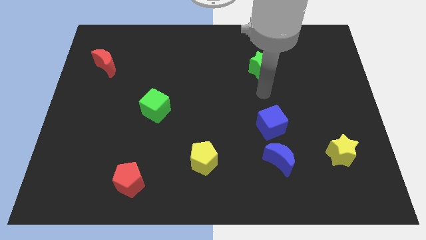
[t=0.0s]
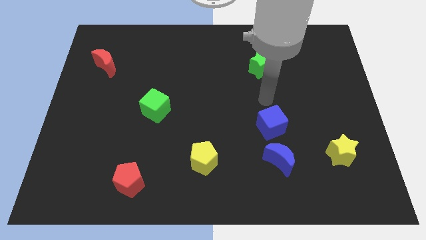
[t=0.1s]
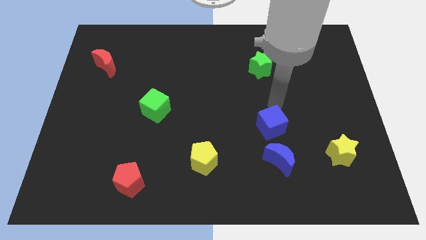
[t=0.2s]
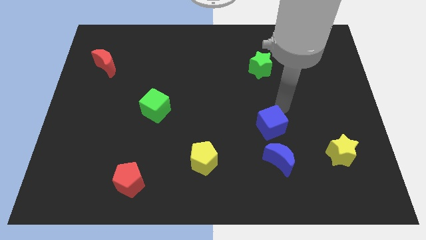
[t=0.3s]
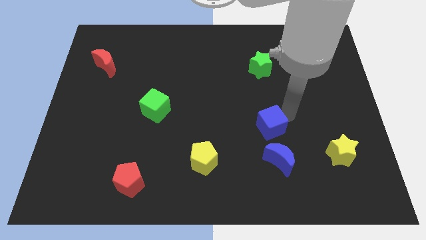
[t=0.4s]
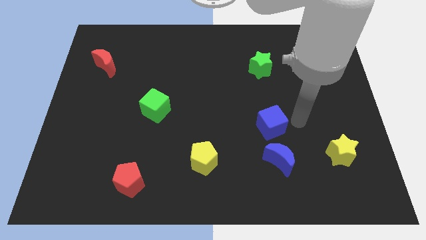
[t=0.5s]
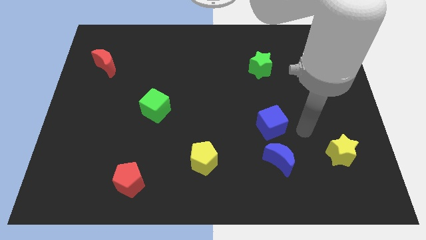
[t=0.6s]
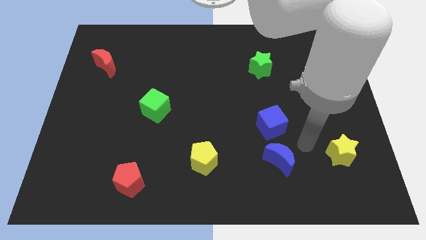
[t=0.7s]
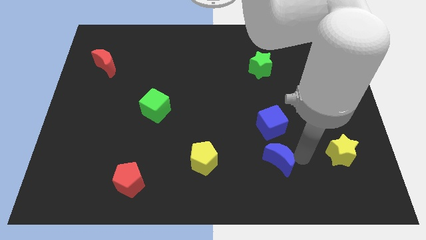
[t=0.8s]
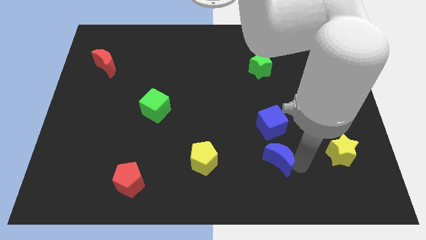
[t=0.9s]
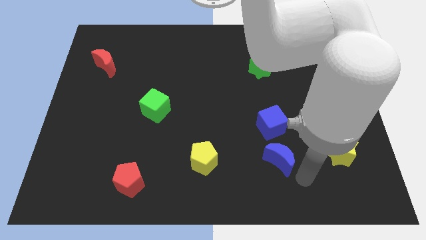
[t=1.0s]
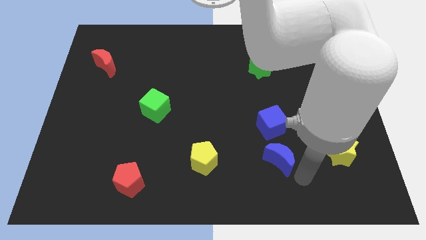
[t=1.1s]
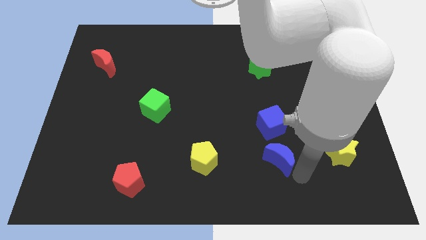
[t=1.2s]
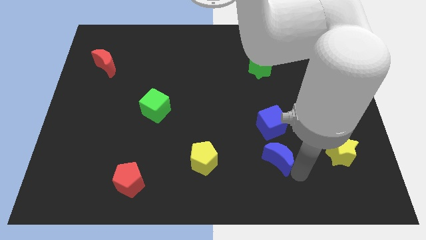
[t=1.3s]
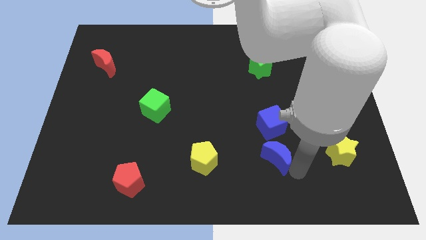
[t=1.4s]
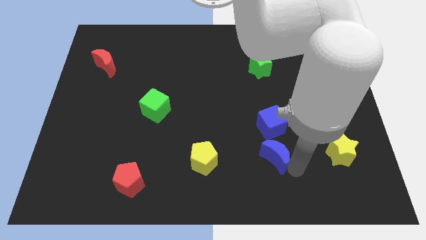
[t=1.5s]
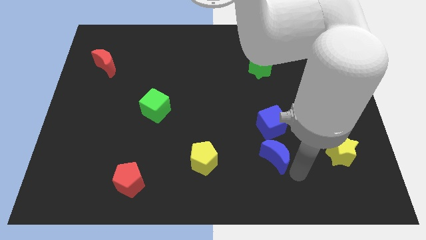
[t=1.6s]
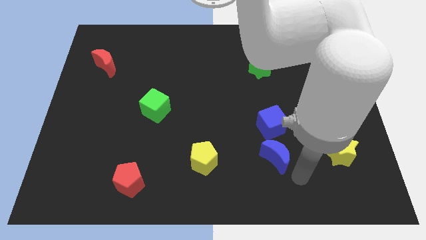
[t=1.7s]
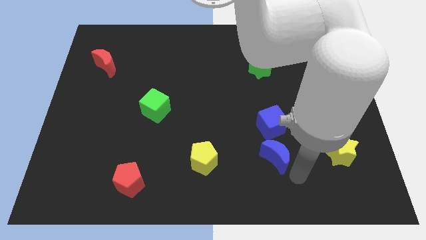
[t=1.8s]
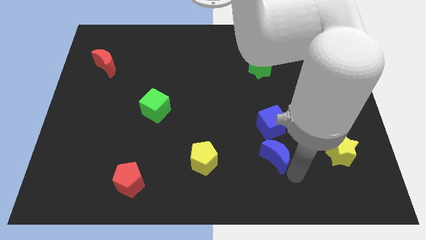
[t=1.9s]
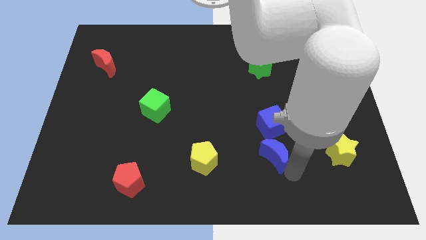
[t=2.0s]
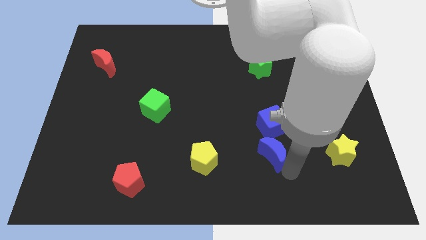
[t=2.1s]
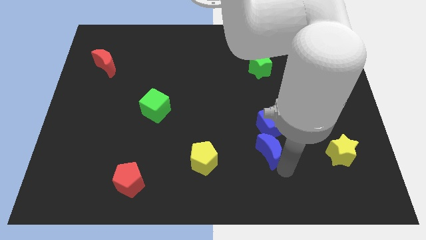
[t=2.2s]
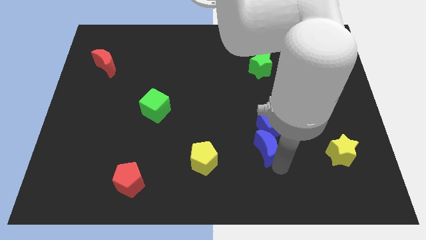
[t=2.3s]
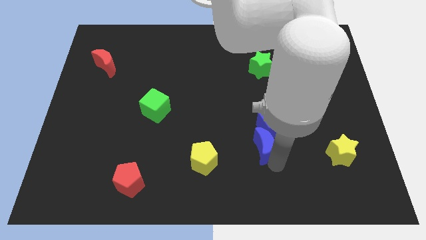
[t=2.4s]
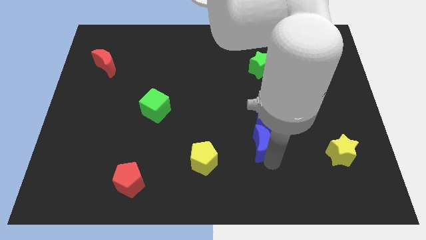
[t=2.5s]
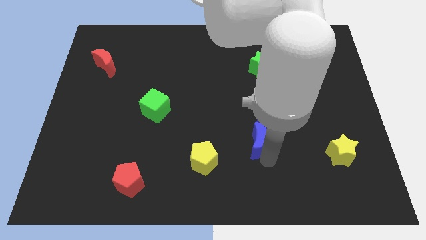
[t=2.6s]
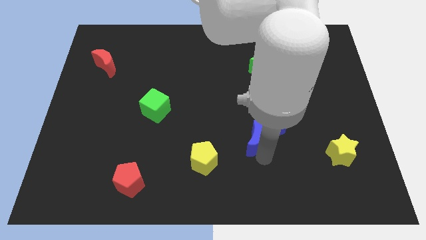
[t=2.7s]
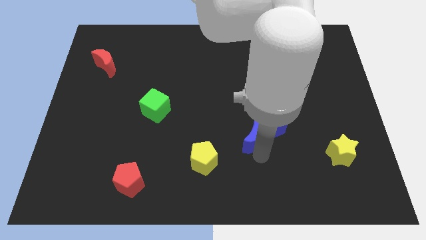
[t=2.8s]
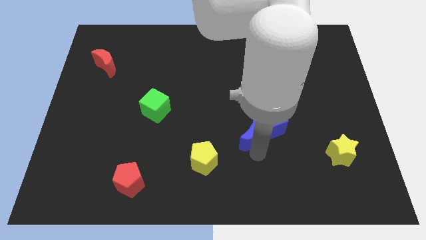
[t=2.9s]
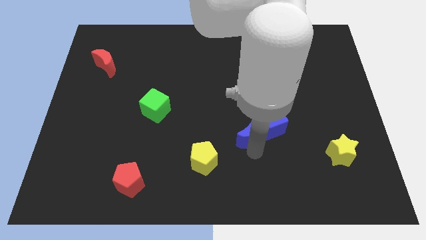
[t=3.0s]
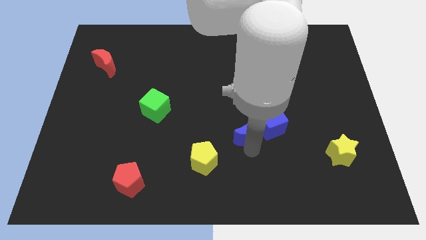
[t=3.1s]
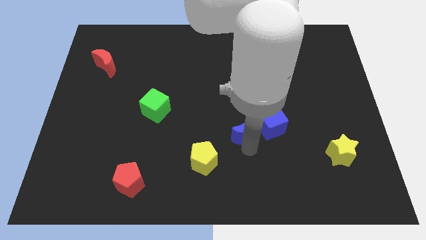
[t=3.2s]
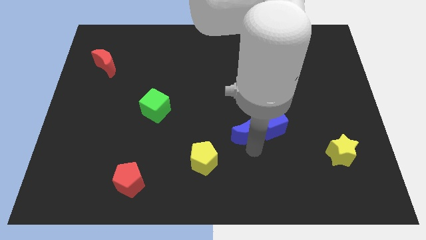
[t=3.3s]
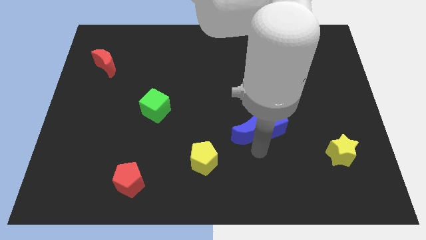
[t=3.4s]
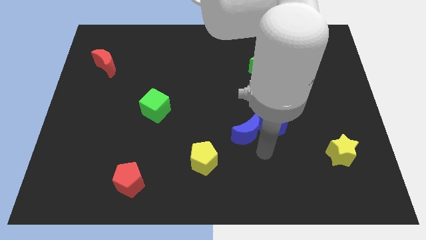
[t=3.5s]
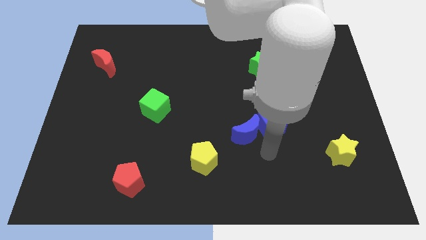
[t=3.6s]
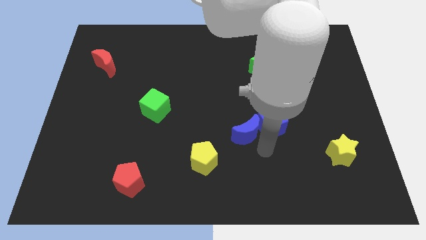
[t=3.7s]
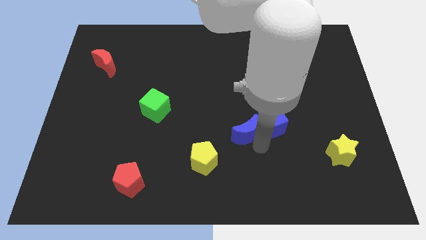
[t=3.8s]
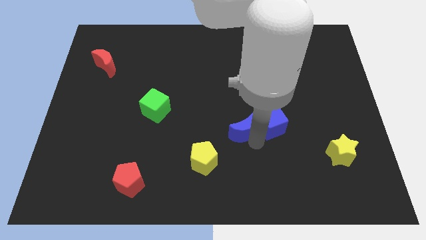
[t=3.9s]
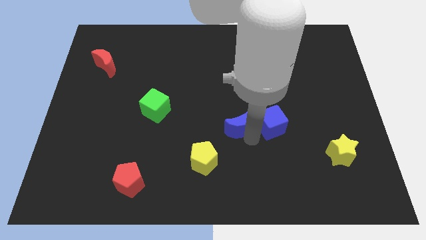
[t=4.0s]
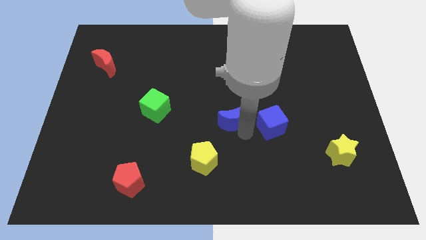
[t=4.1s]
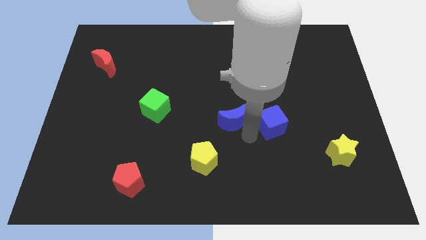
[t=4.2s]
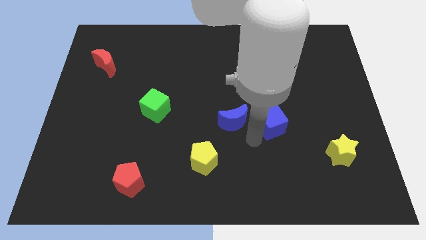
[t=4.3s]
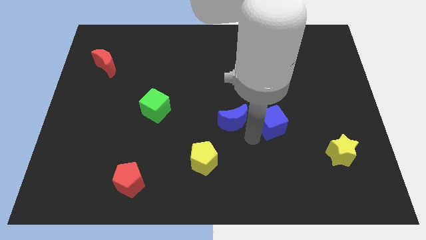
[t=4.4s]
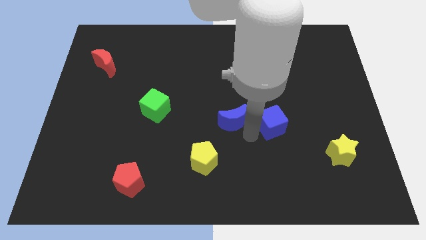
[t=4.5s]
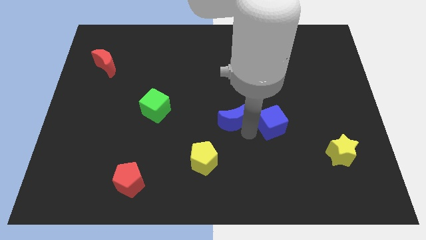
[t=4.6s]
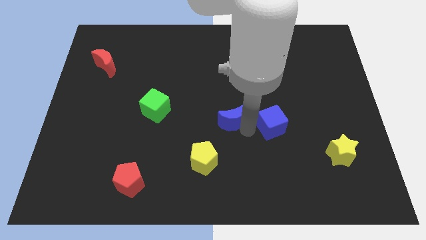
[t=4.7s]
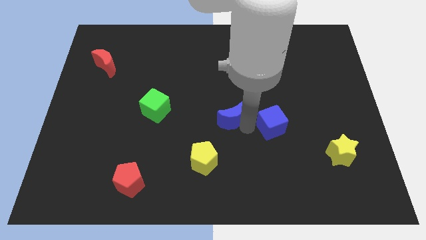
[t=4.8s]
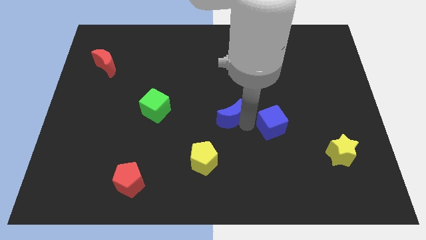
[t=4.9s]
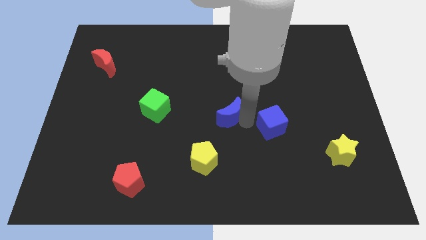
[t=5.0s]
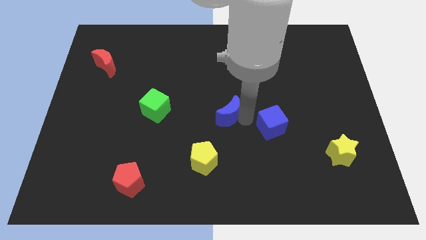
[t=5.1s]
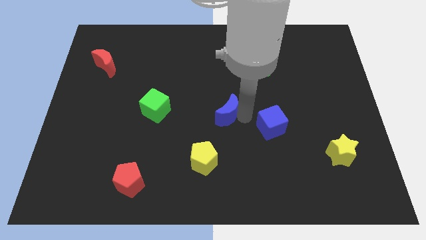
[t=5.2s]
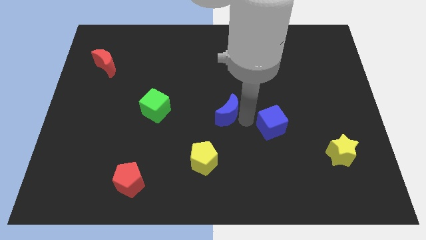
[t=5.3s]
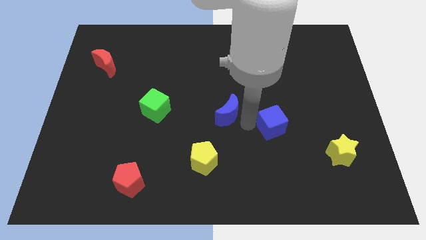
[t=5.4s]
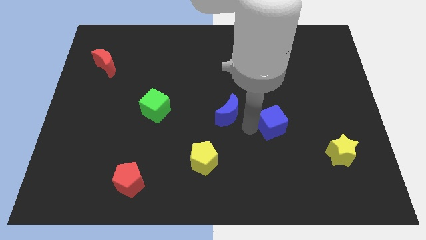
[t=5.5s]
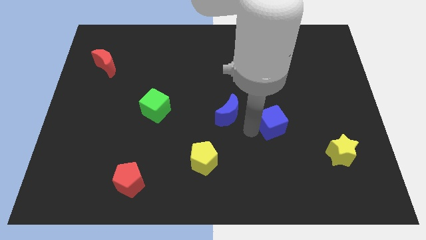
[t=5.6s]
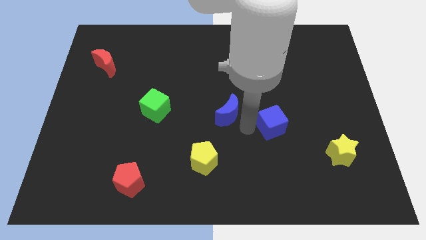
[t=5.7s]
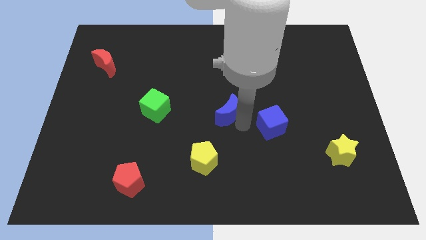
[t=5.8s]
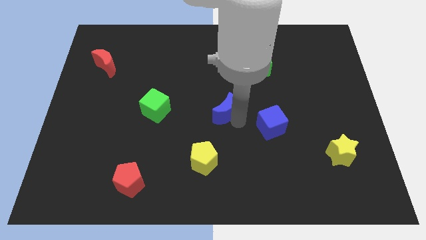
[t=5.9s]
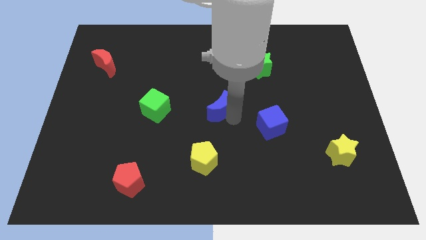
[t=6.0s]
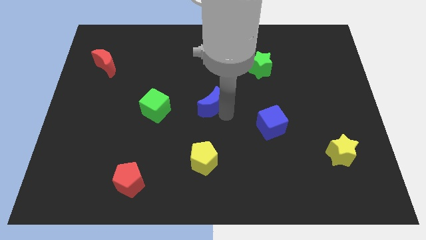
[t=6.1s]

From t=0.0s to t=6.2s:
move the blue moon up and left

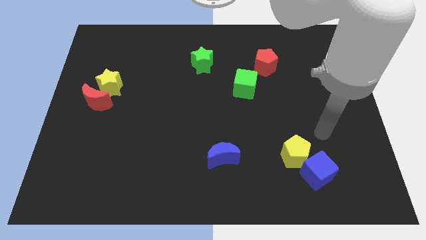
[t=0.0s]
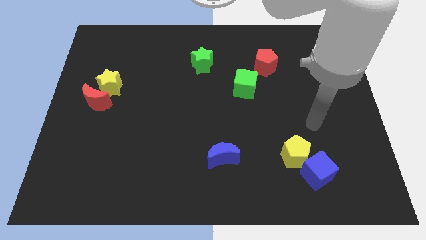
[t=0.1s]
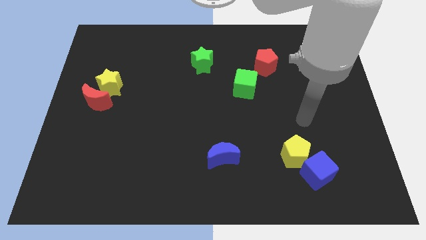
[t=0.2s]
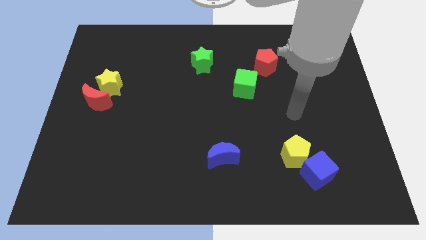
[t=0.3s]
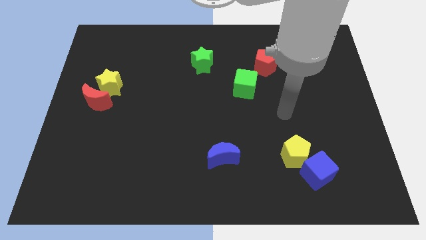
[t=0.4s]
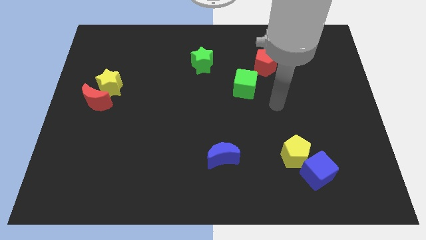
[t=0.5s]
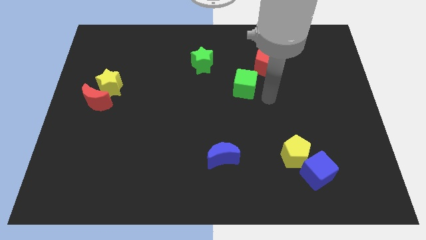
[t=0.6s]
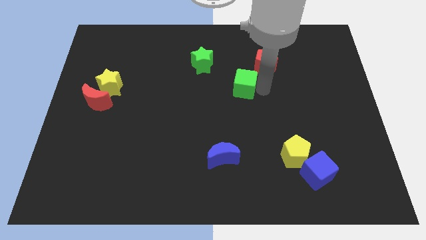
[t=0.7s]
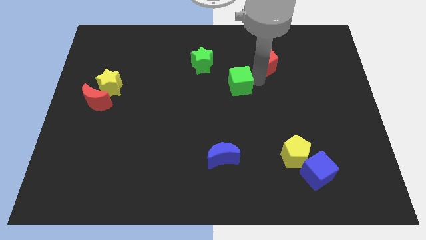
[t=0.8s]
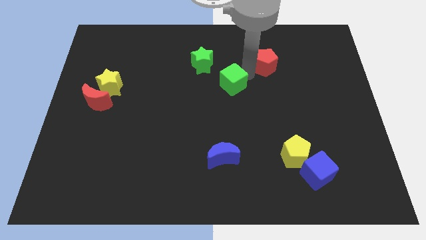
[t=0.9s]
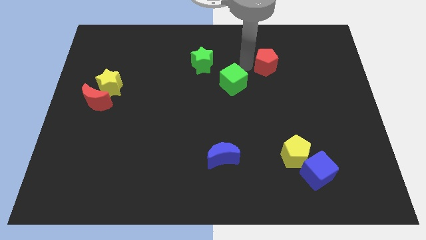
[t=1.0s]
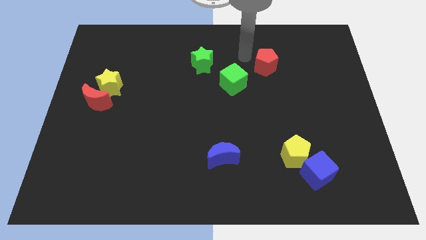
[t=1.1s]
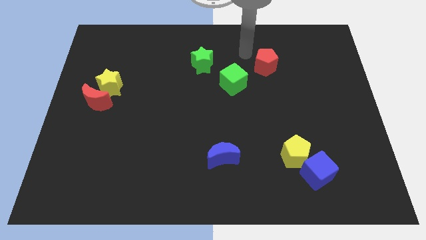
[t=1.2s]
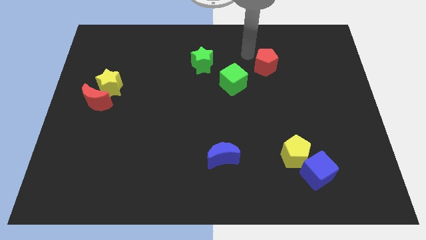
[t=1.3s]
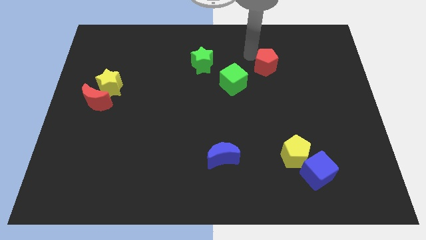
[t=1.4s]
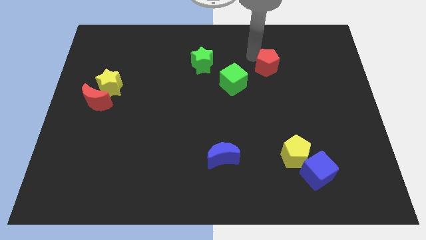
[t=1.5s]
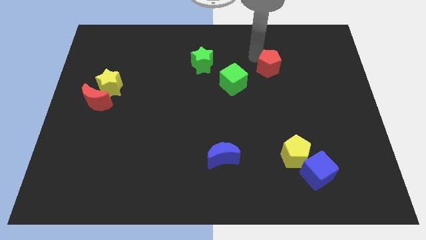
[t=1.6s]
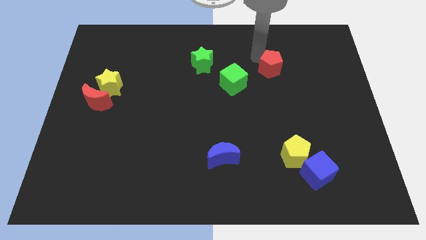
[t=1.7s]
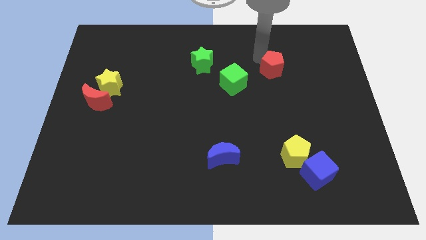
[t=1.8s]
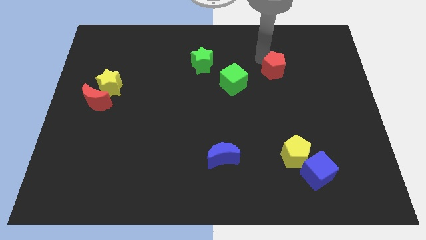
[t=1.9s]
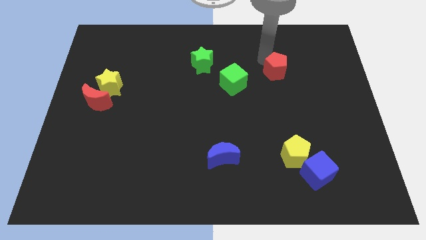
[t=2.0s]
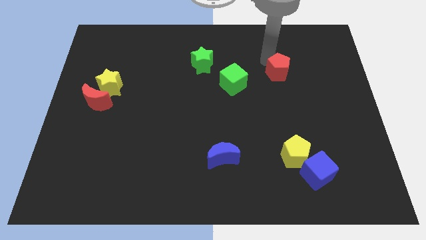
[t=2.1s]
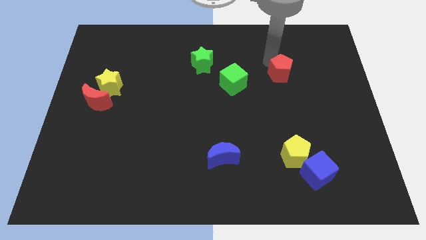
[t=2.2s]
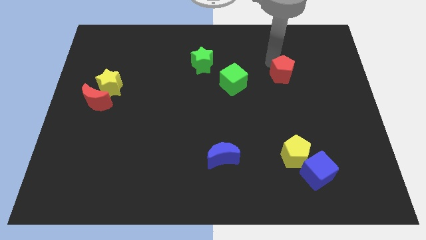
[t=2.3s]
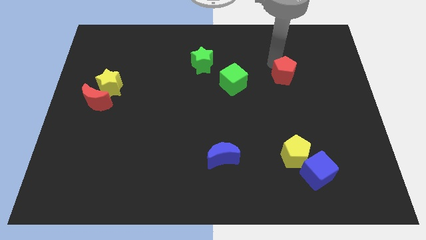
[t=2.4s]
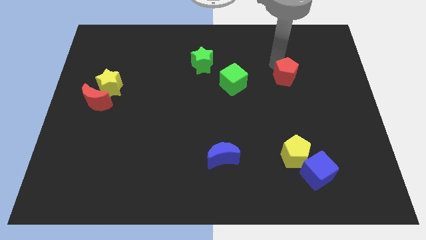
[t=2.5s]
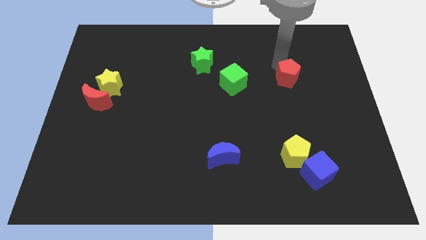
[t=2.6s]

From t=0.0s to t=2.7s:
move the red pentagon diagonally down and right a little
